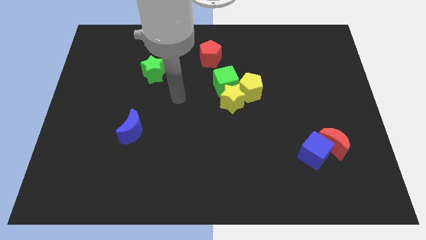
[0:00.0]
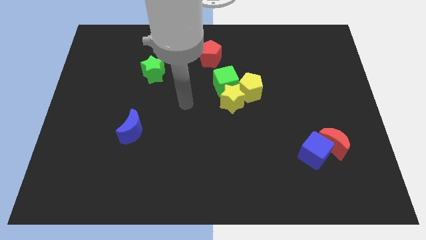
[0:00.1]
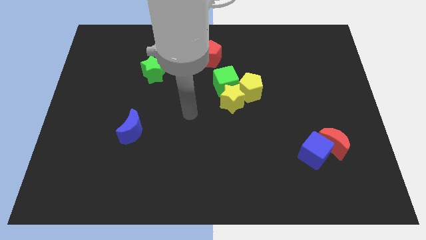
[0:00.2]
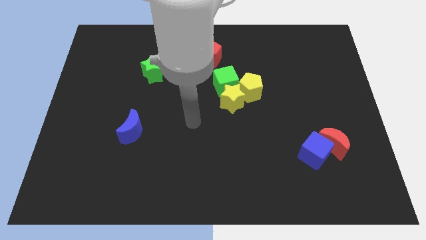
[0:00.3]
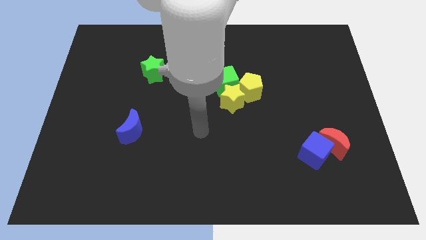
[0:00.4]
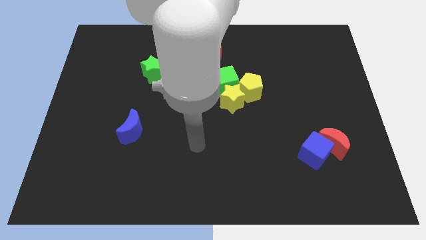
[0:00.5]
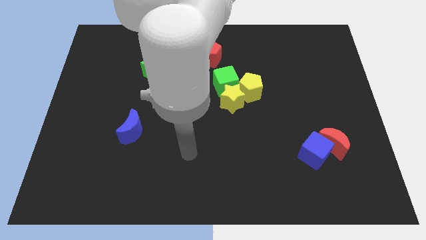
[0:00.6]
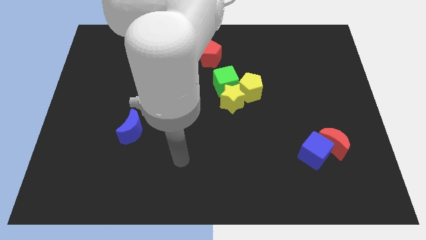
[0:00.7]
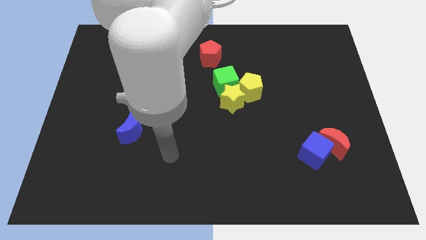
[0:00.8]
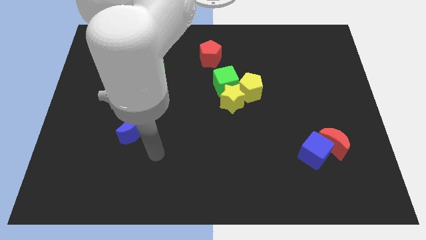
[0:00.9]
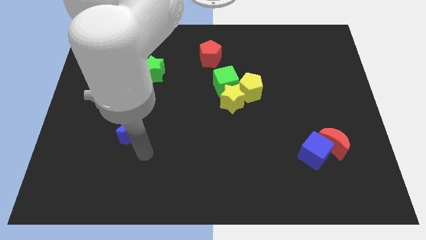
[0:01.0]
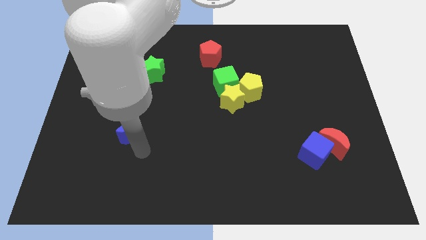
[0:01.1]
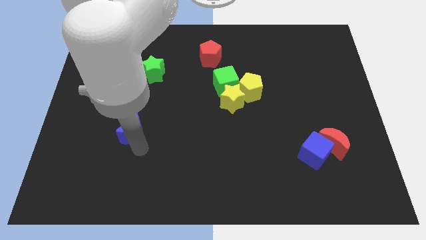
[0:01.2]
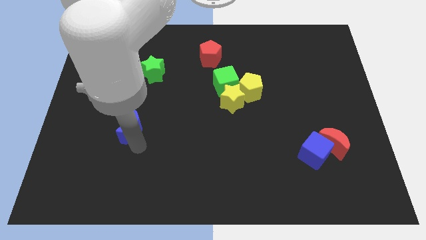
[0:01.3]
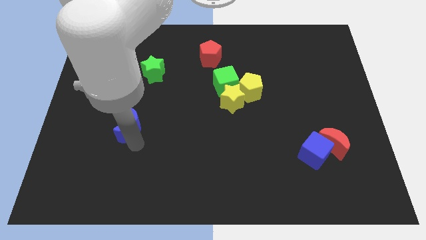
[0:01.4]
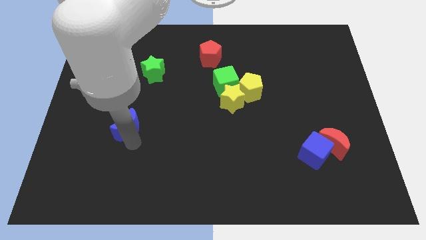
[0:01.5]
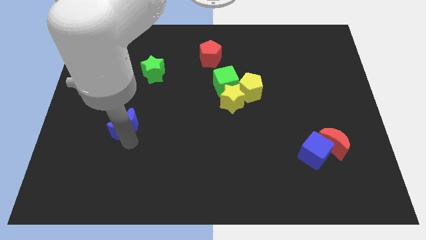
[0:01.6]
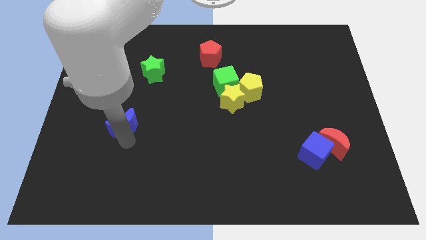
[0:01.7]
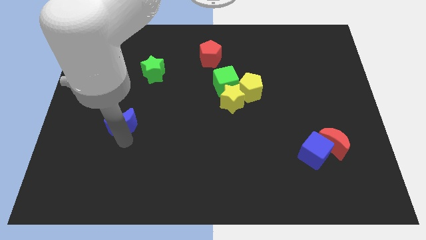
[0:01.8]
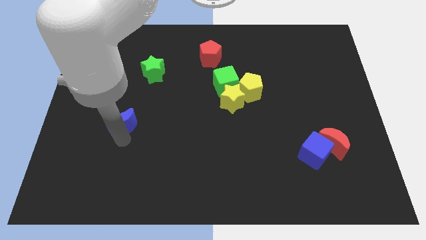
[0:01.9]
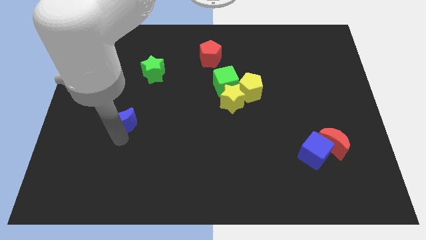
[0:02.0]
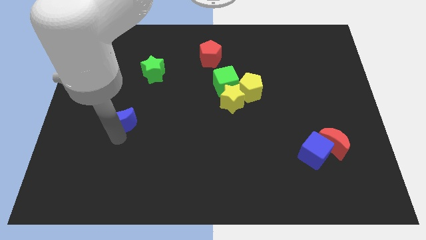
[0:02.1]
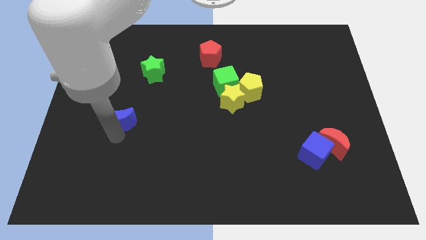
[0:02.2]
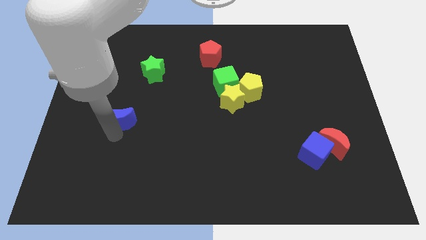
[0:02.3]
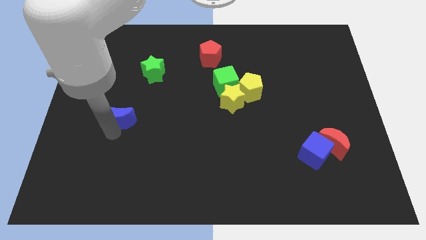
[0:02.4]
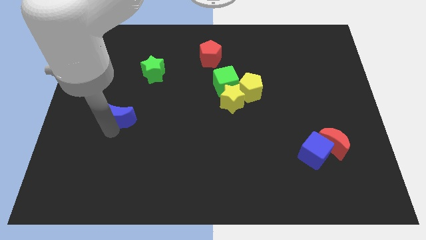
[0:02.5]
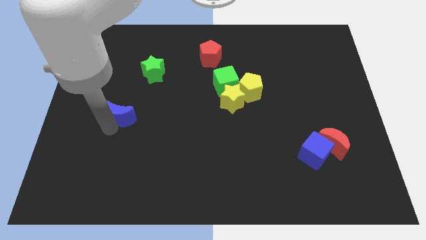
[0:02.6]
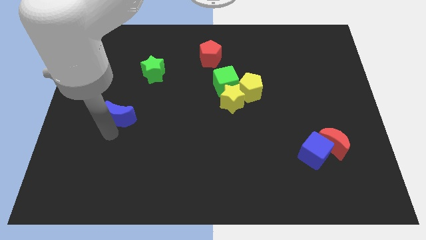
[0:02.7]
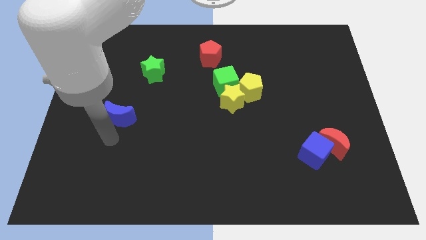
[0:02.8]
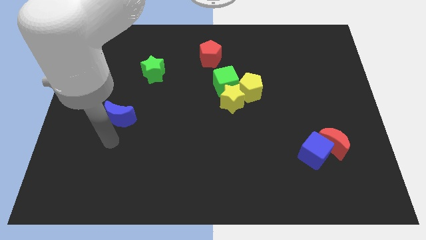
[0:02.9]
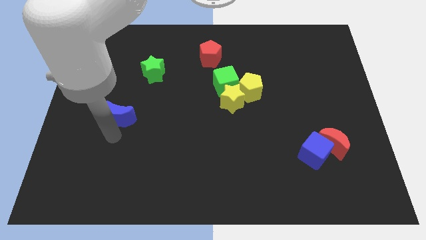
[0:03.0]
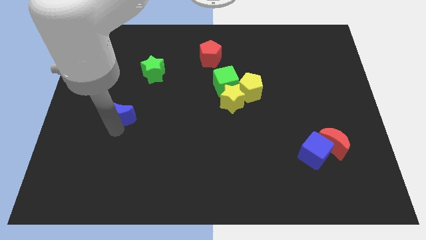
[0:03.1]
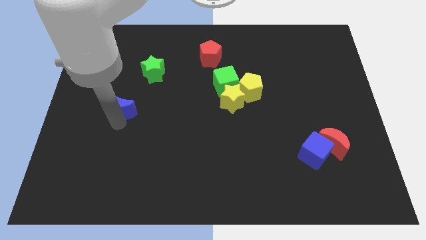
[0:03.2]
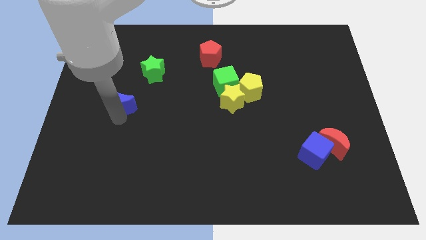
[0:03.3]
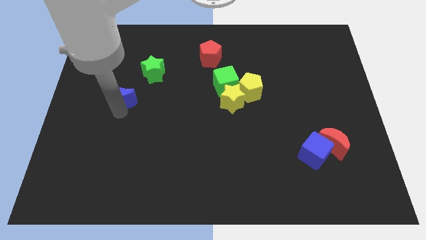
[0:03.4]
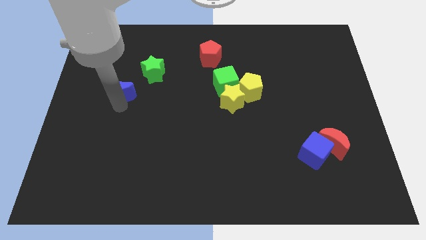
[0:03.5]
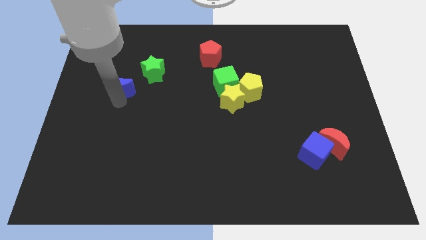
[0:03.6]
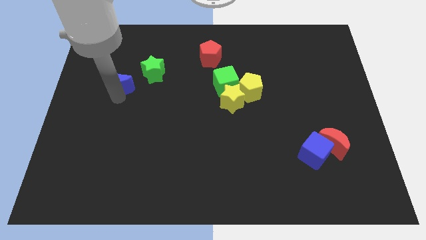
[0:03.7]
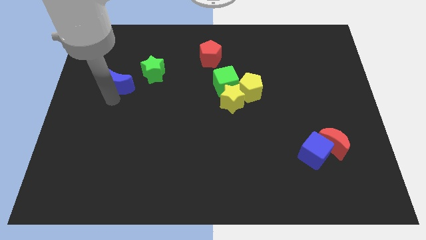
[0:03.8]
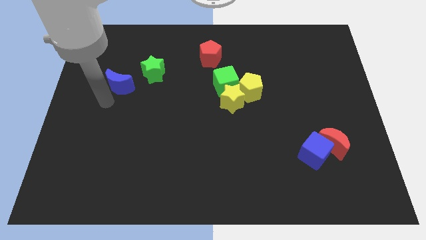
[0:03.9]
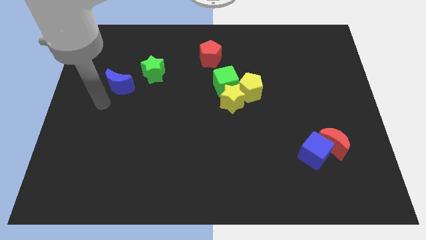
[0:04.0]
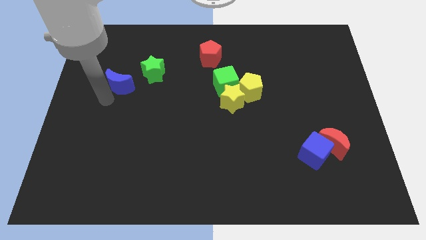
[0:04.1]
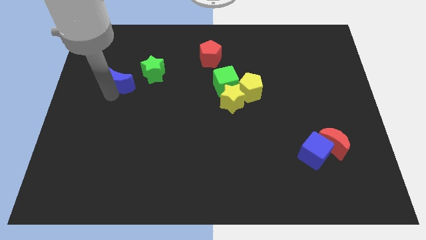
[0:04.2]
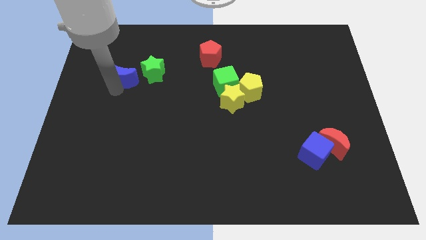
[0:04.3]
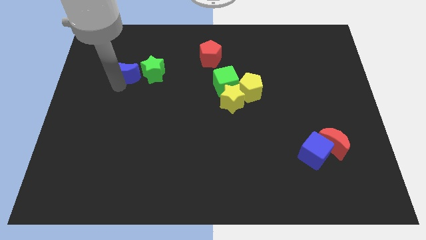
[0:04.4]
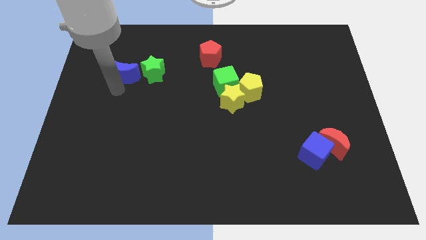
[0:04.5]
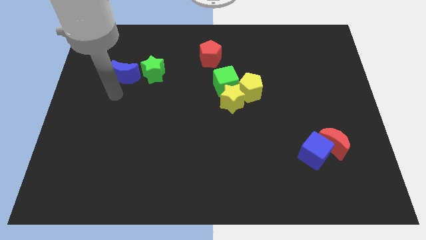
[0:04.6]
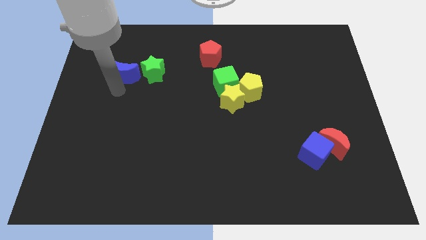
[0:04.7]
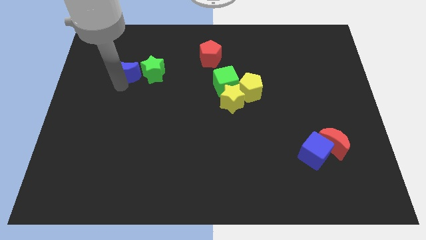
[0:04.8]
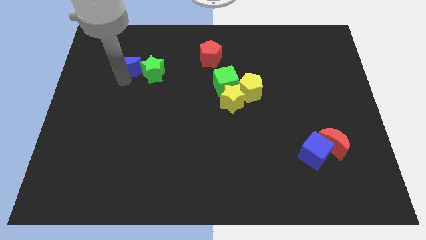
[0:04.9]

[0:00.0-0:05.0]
move the blue moon diagonally up and to the left of the green star

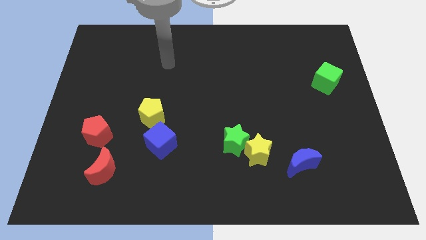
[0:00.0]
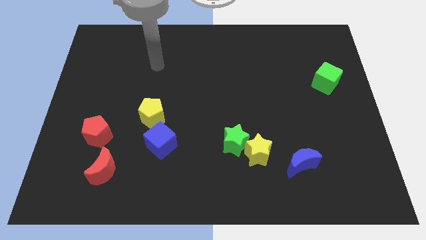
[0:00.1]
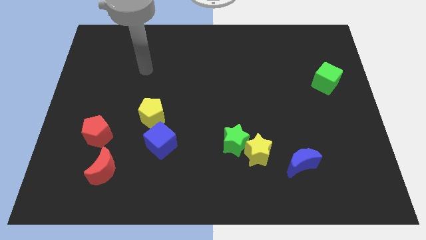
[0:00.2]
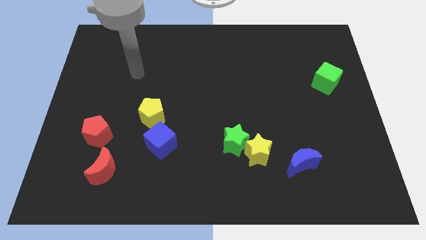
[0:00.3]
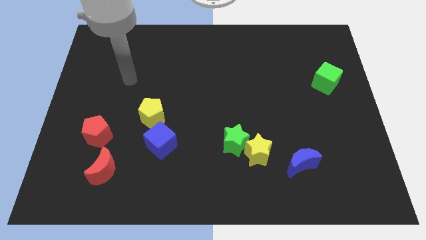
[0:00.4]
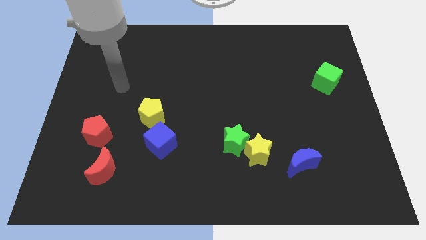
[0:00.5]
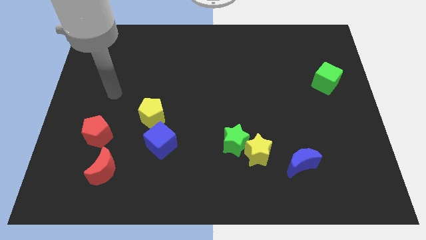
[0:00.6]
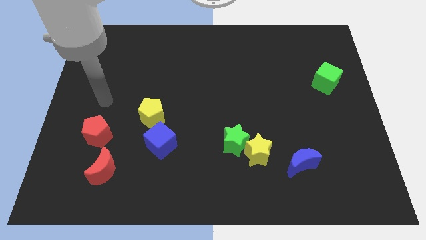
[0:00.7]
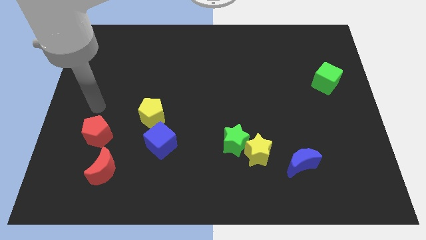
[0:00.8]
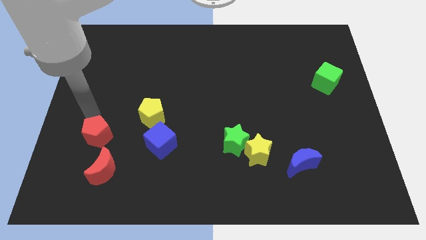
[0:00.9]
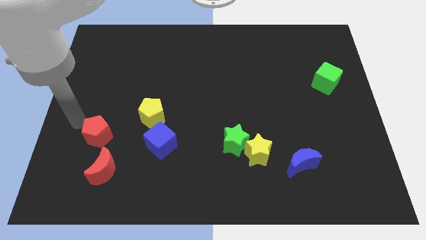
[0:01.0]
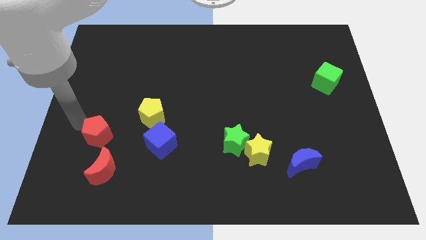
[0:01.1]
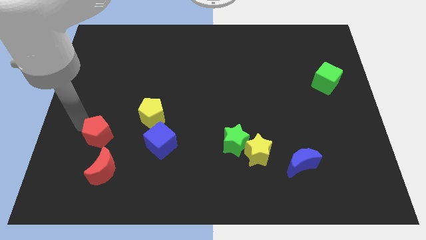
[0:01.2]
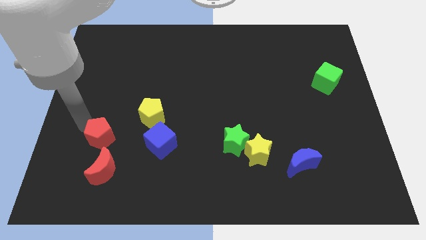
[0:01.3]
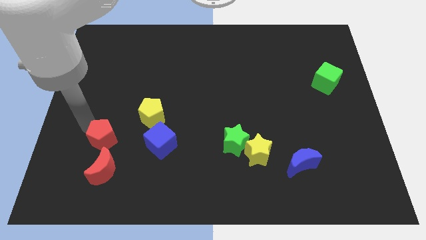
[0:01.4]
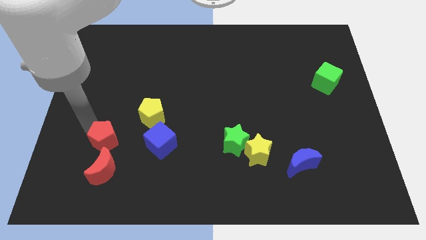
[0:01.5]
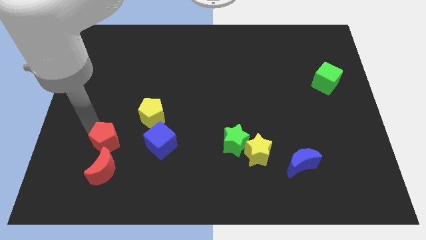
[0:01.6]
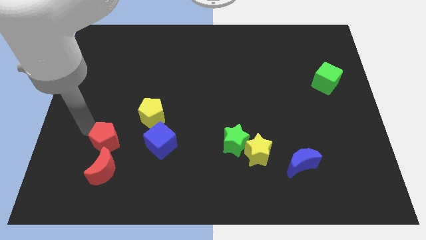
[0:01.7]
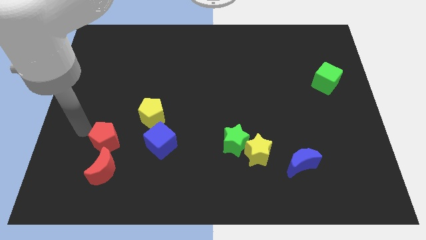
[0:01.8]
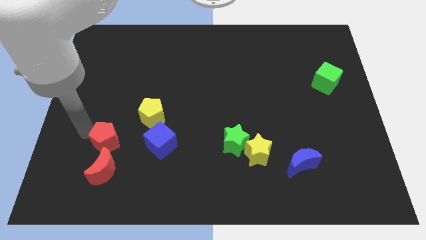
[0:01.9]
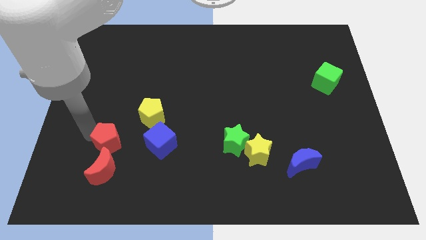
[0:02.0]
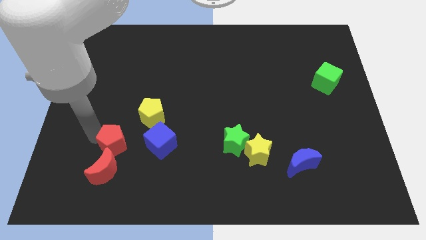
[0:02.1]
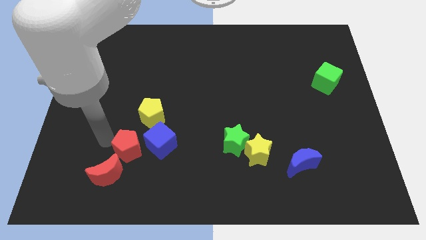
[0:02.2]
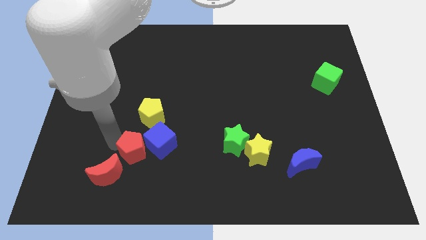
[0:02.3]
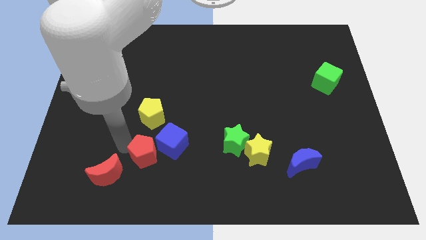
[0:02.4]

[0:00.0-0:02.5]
push the red pentagon right of the red moon
